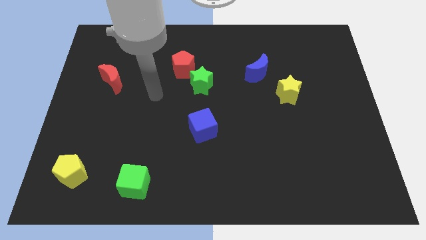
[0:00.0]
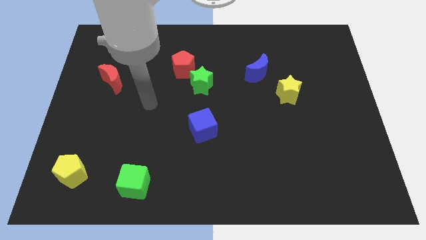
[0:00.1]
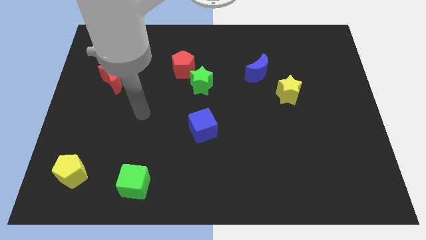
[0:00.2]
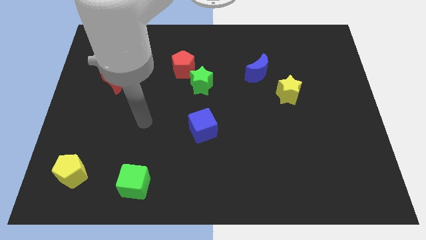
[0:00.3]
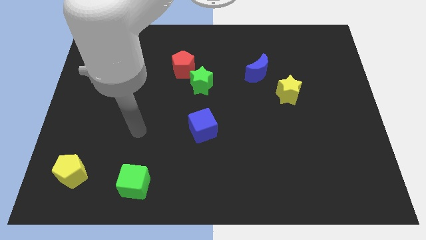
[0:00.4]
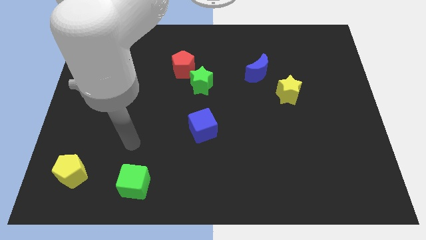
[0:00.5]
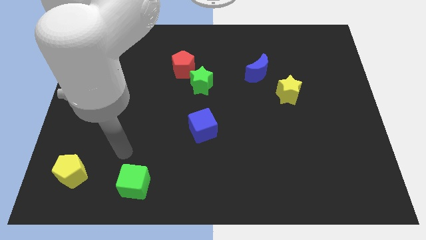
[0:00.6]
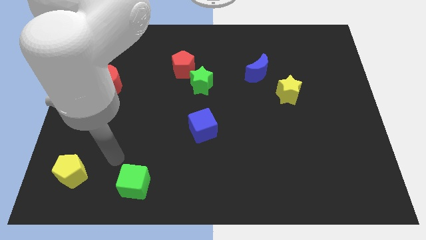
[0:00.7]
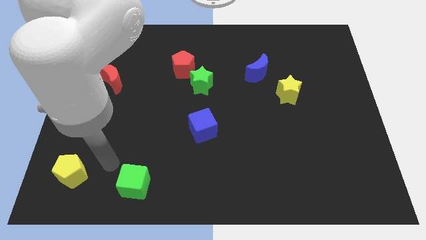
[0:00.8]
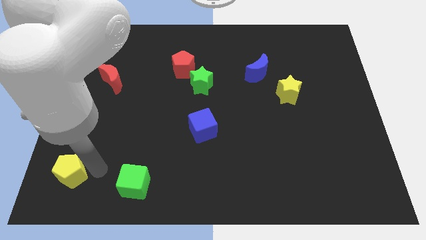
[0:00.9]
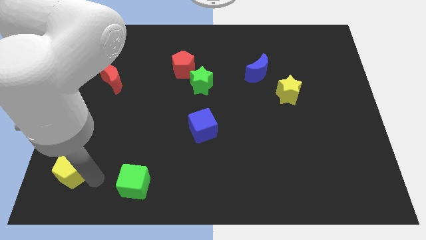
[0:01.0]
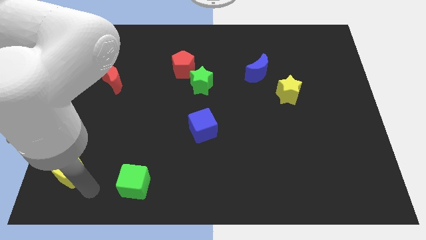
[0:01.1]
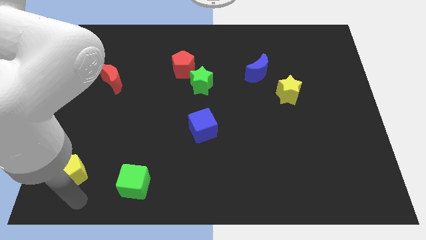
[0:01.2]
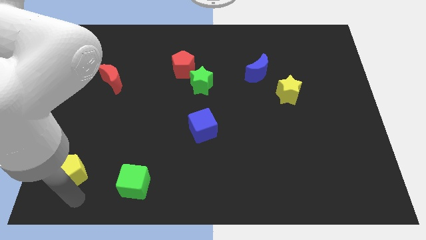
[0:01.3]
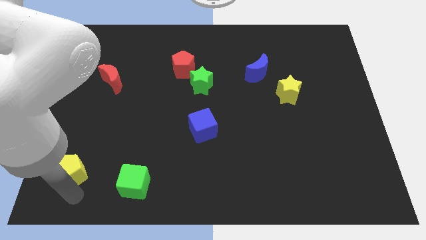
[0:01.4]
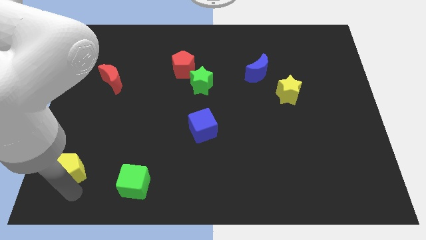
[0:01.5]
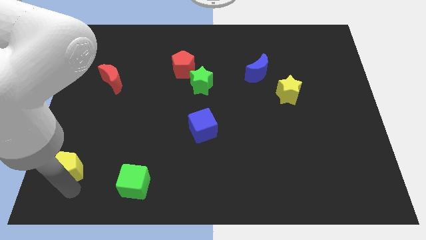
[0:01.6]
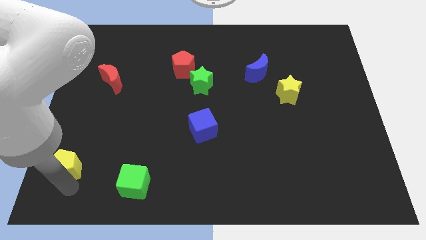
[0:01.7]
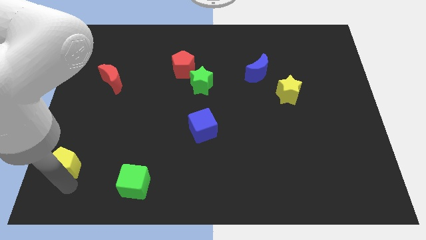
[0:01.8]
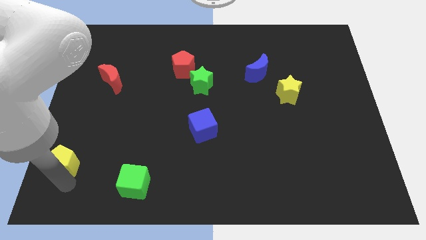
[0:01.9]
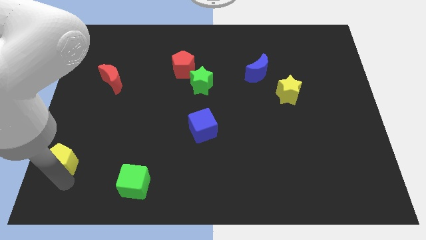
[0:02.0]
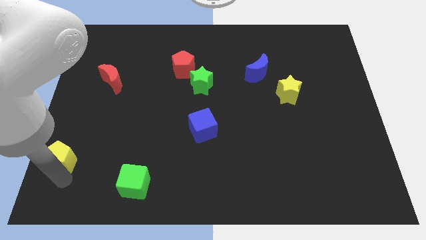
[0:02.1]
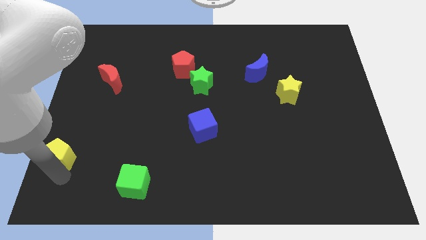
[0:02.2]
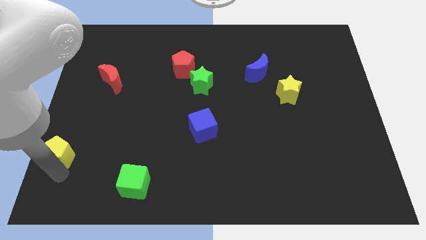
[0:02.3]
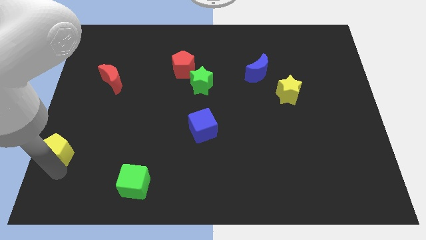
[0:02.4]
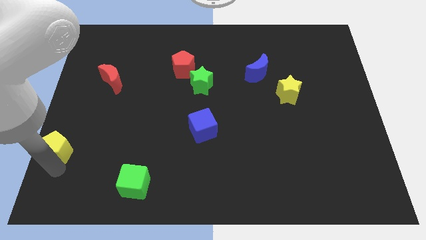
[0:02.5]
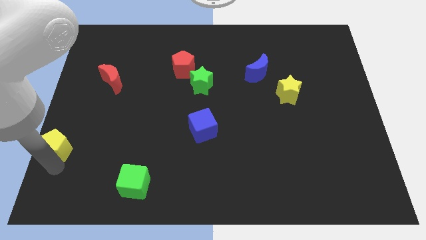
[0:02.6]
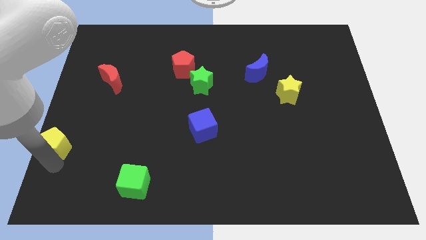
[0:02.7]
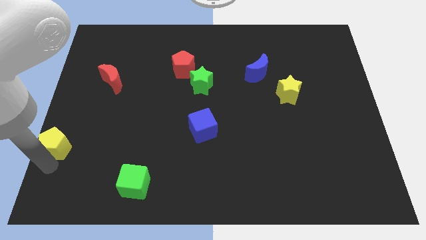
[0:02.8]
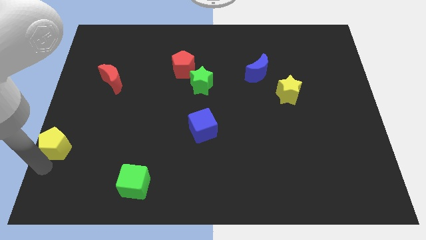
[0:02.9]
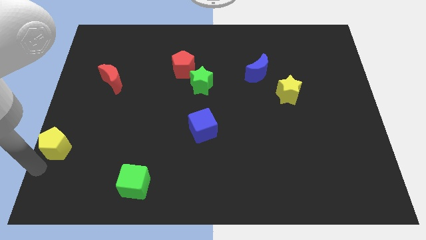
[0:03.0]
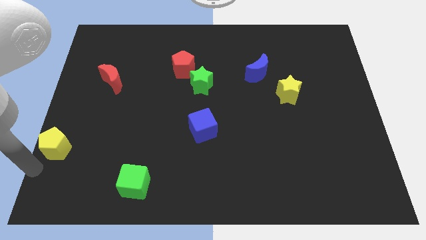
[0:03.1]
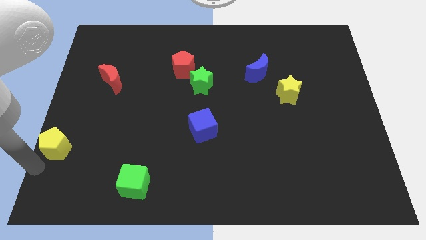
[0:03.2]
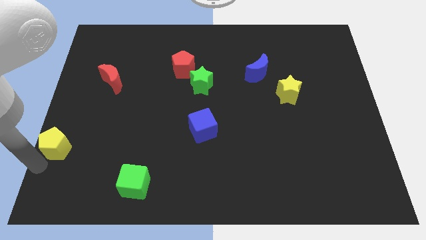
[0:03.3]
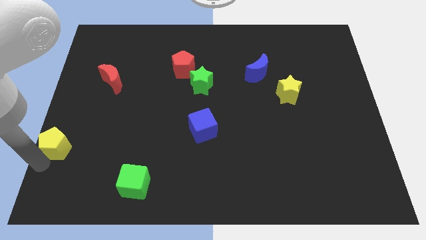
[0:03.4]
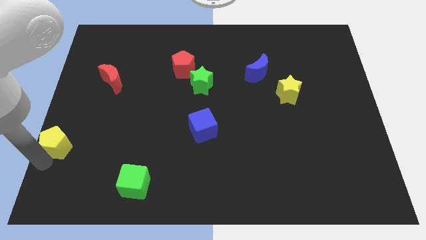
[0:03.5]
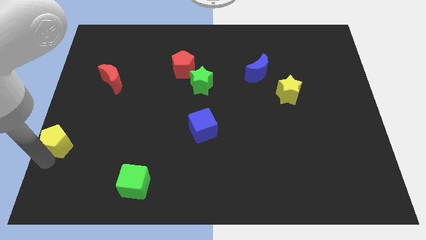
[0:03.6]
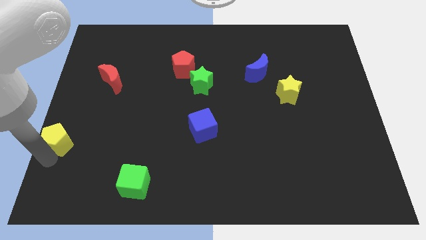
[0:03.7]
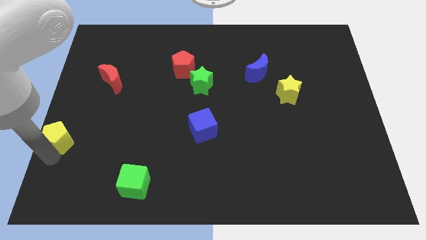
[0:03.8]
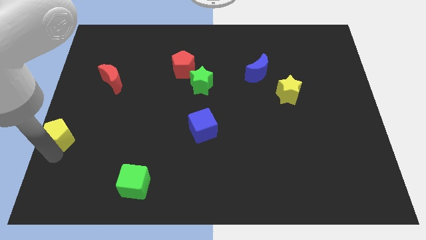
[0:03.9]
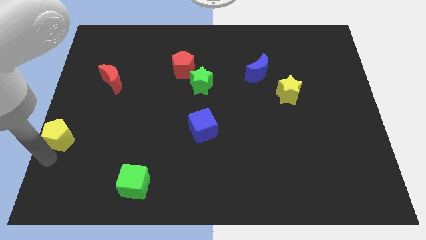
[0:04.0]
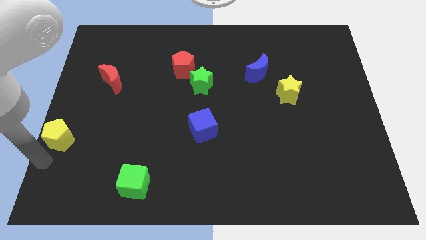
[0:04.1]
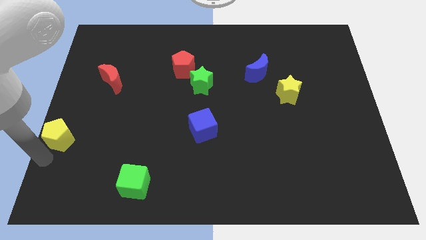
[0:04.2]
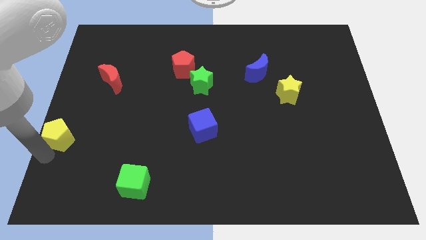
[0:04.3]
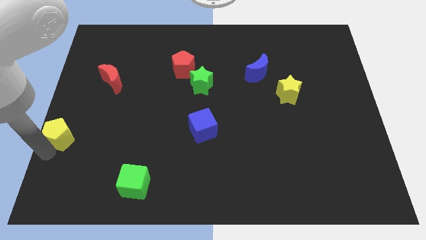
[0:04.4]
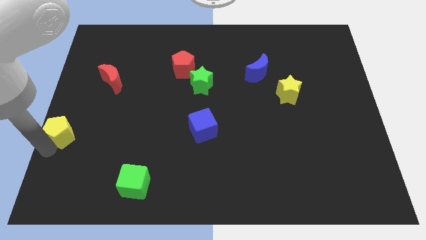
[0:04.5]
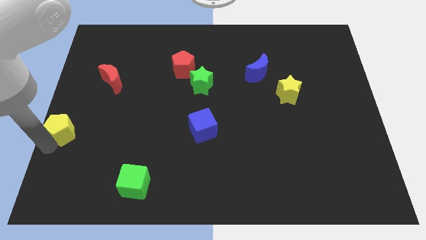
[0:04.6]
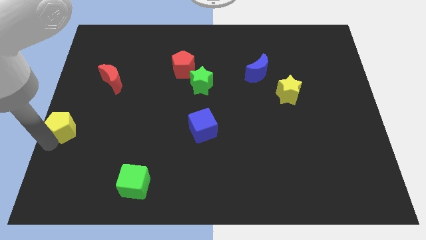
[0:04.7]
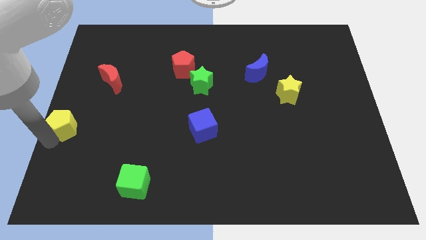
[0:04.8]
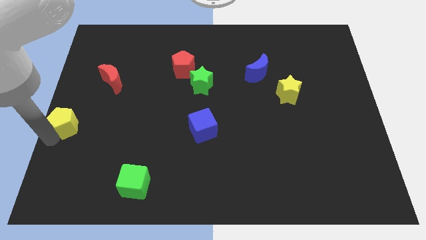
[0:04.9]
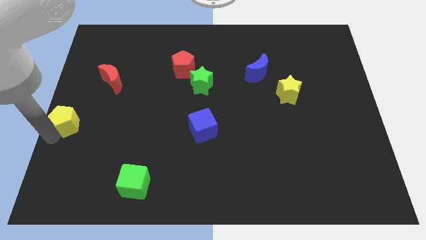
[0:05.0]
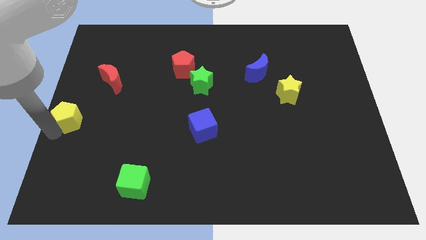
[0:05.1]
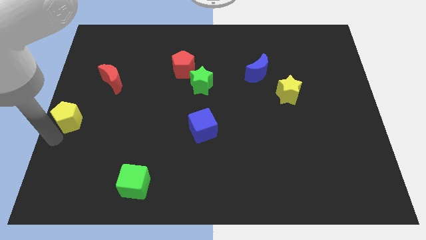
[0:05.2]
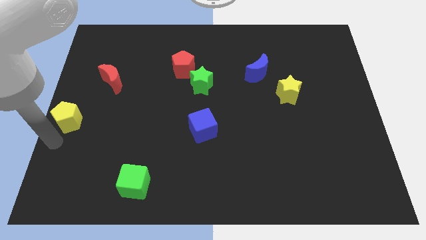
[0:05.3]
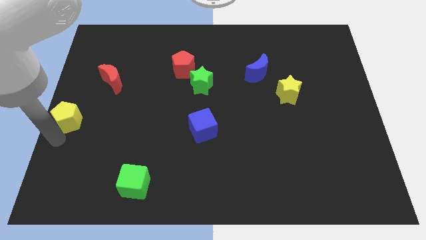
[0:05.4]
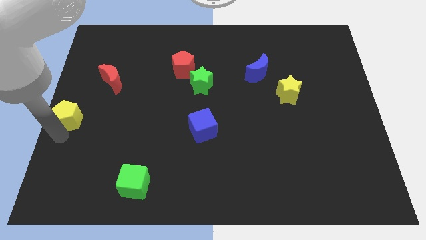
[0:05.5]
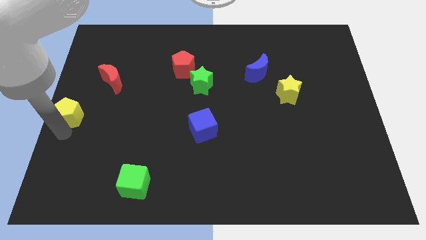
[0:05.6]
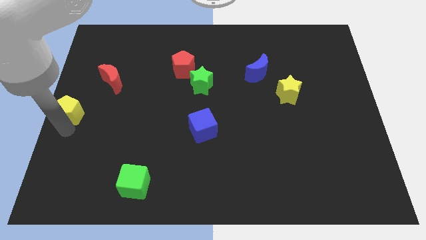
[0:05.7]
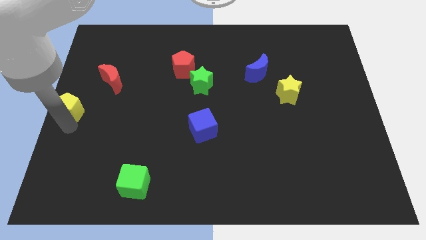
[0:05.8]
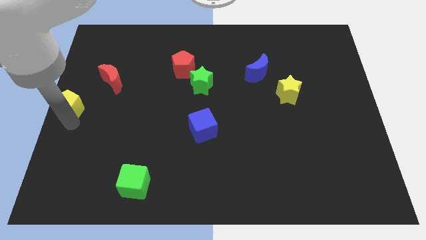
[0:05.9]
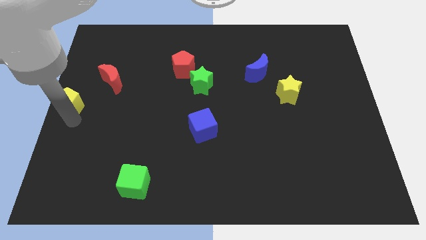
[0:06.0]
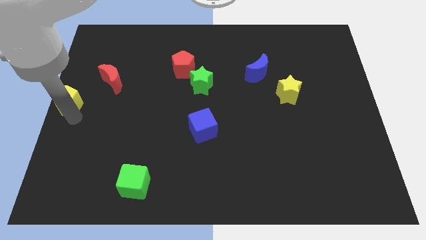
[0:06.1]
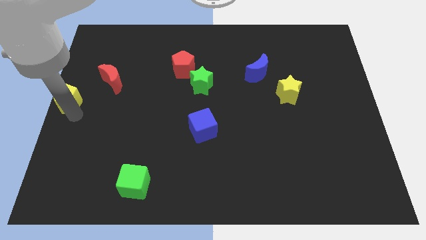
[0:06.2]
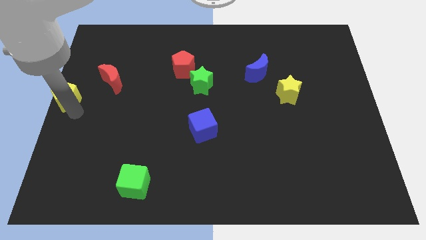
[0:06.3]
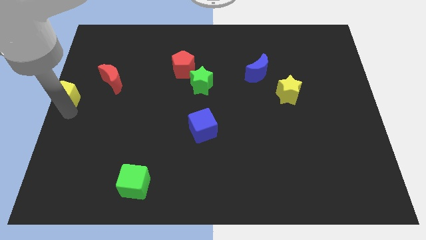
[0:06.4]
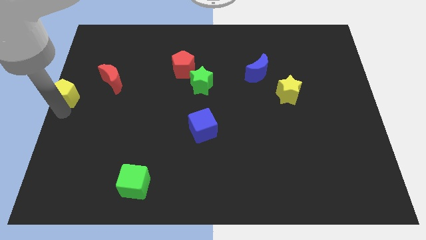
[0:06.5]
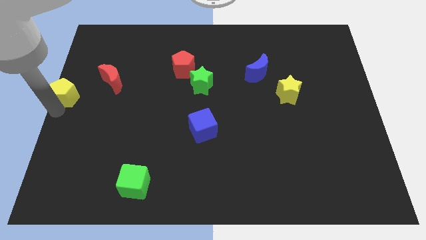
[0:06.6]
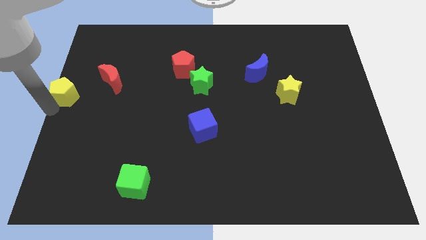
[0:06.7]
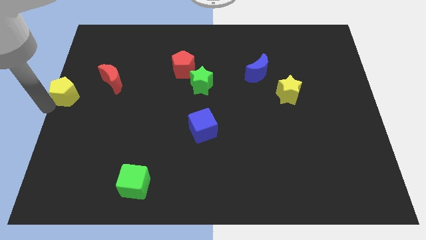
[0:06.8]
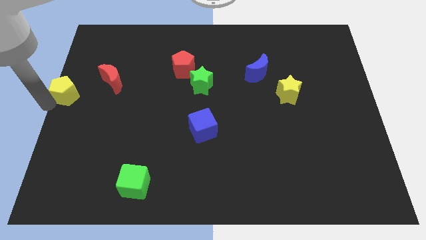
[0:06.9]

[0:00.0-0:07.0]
slide the yellow pentagon upwards

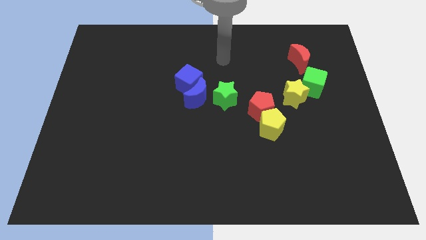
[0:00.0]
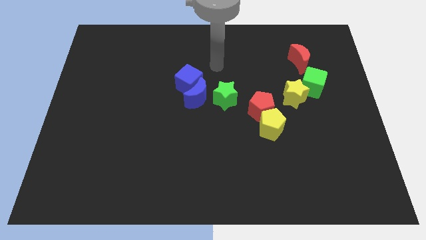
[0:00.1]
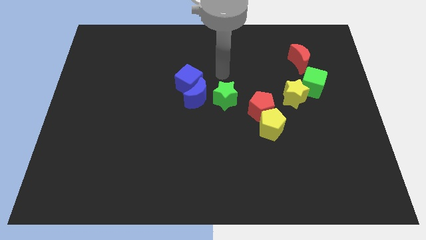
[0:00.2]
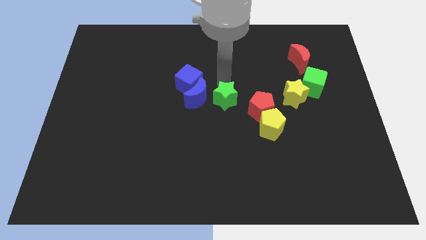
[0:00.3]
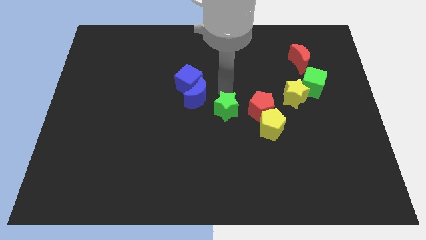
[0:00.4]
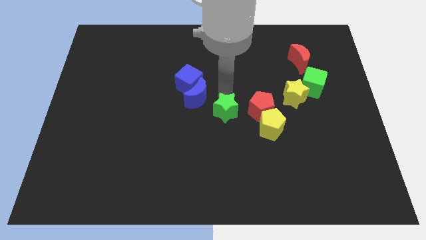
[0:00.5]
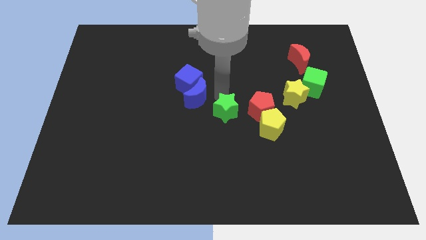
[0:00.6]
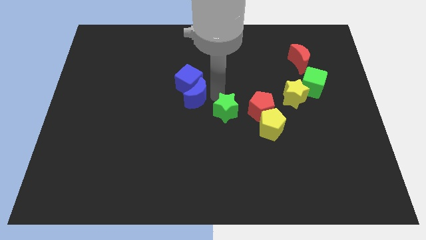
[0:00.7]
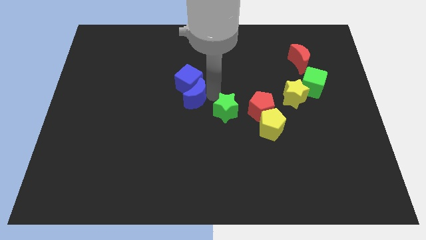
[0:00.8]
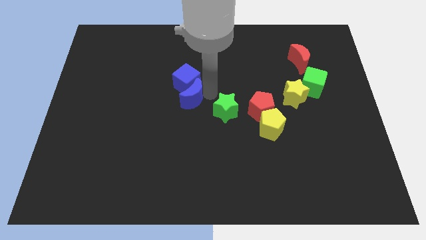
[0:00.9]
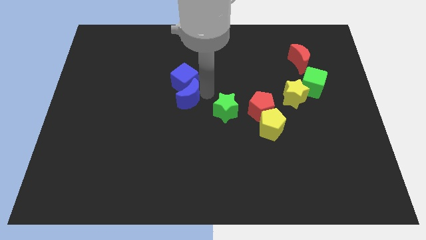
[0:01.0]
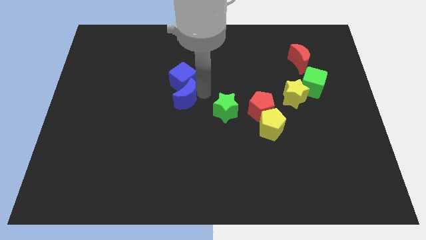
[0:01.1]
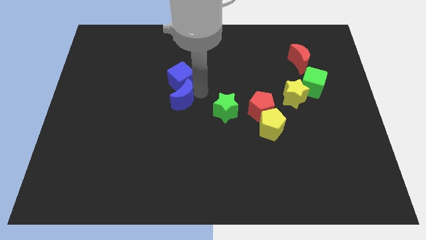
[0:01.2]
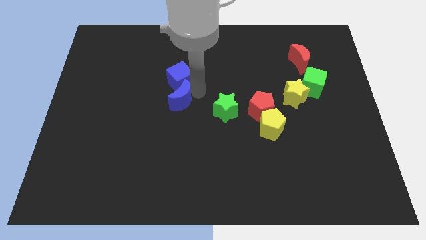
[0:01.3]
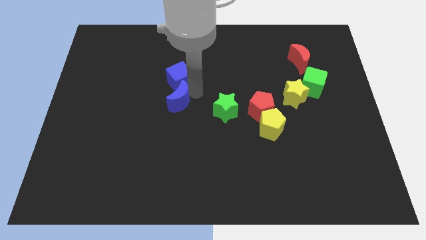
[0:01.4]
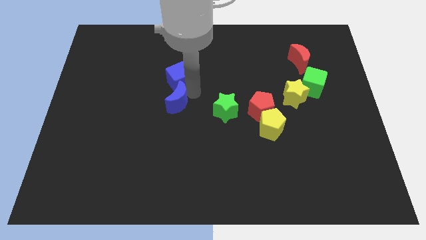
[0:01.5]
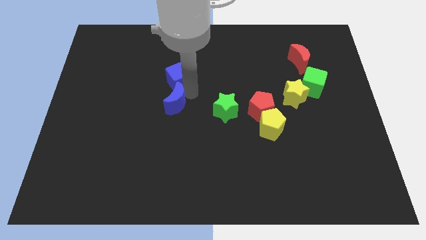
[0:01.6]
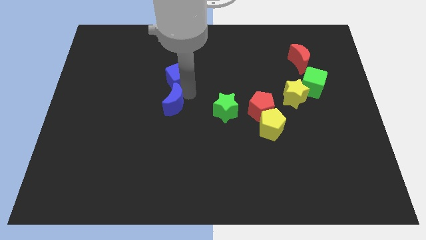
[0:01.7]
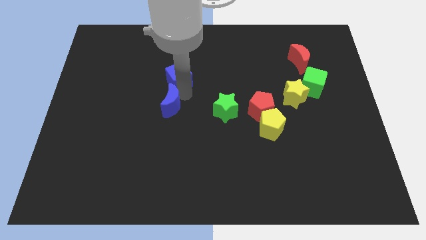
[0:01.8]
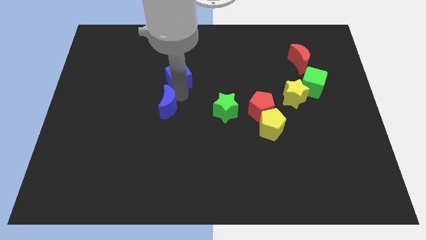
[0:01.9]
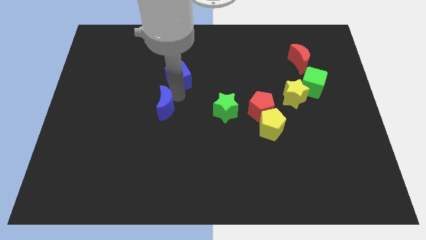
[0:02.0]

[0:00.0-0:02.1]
move the blue moon slightly left
